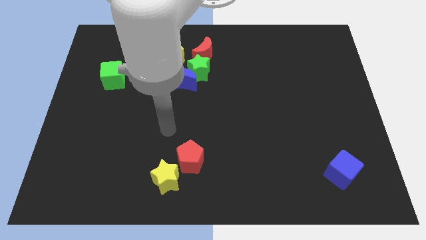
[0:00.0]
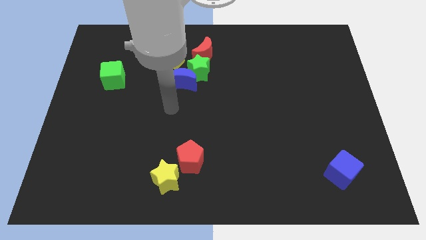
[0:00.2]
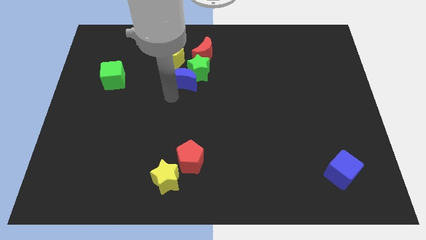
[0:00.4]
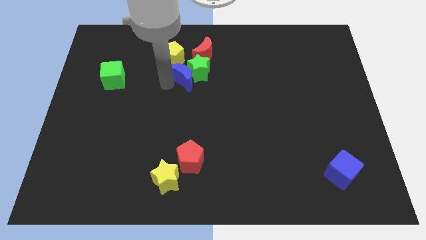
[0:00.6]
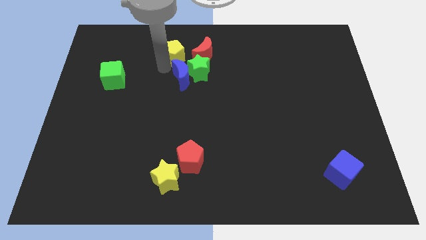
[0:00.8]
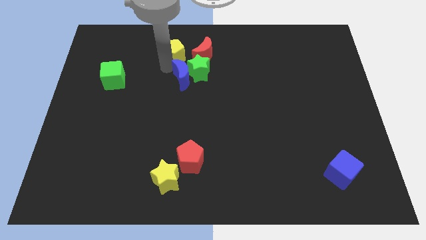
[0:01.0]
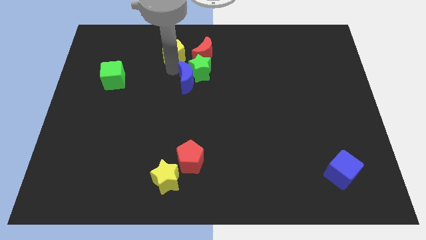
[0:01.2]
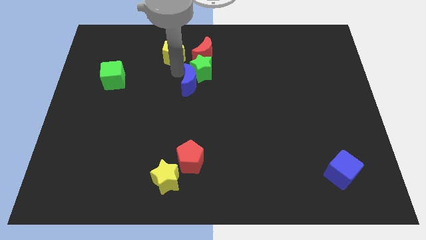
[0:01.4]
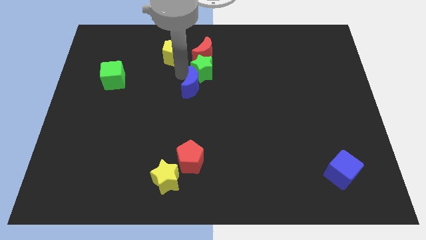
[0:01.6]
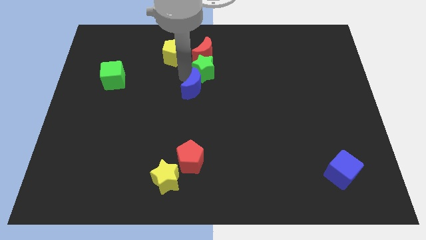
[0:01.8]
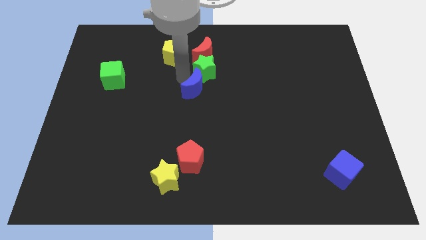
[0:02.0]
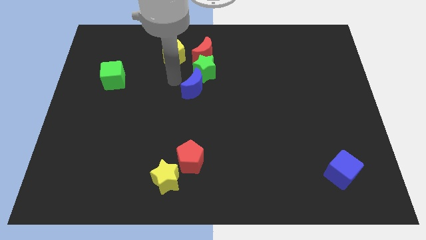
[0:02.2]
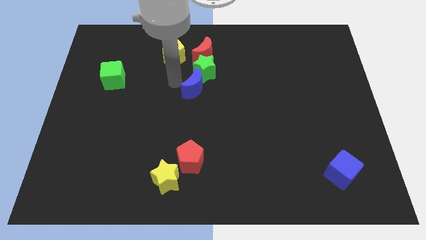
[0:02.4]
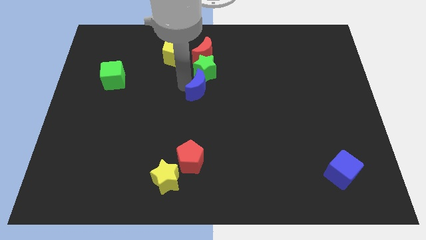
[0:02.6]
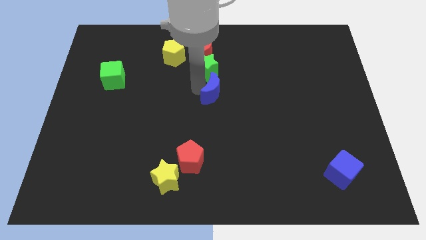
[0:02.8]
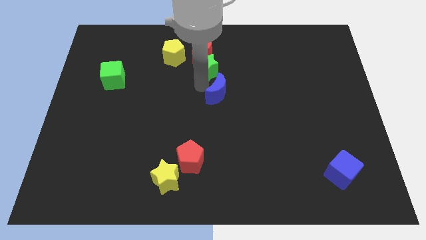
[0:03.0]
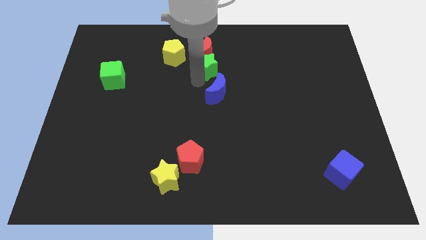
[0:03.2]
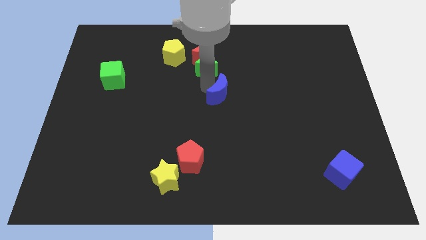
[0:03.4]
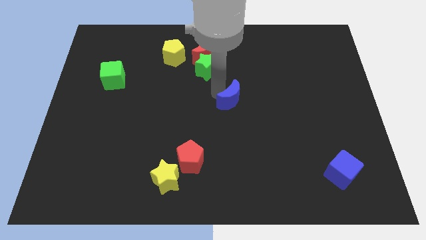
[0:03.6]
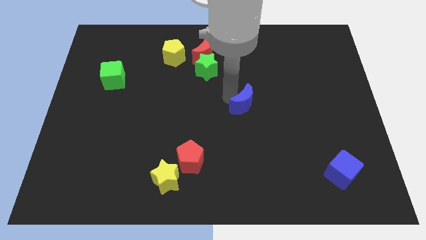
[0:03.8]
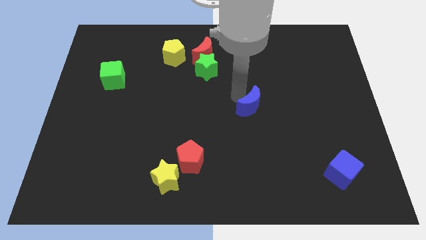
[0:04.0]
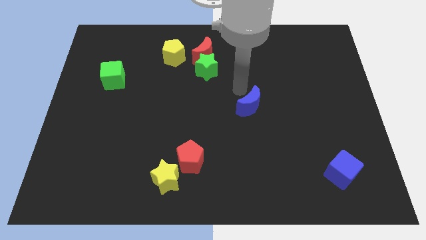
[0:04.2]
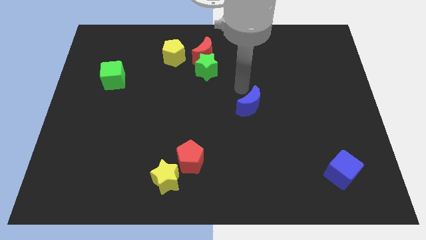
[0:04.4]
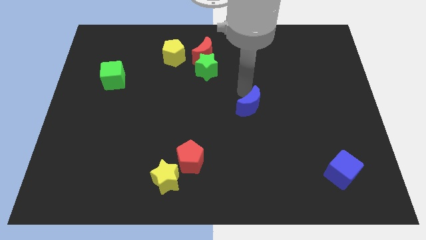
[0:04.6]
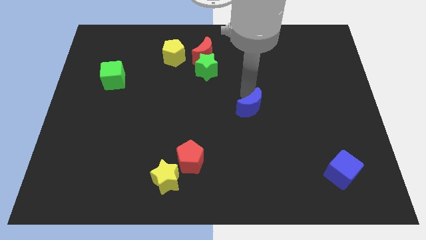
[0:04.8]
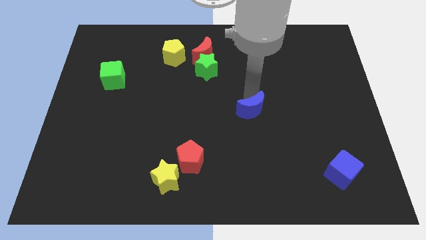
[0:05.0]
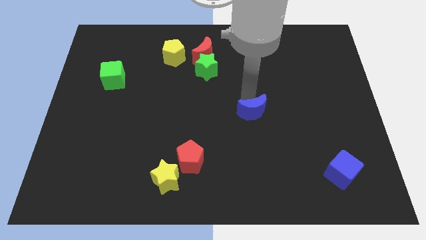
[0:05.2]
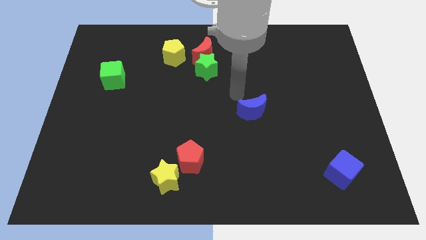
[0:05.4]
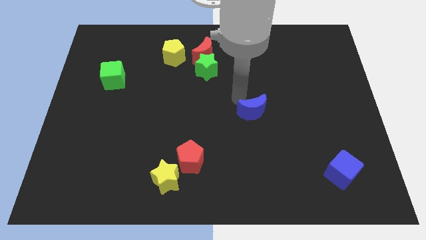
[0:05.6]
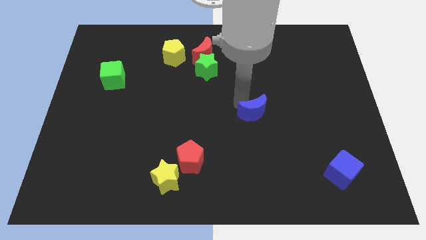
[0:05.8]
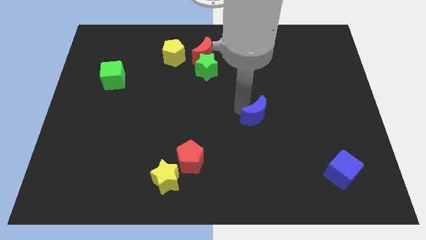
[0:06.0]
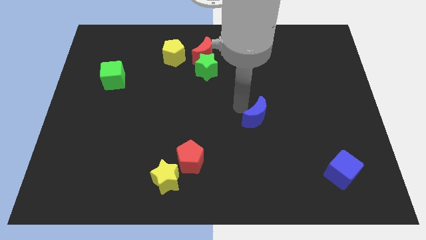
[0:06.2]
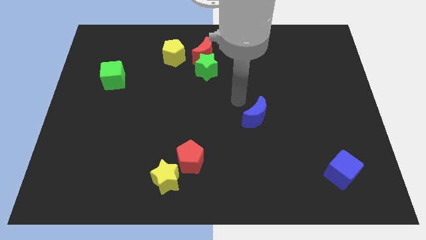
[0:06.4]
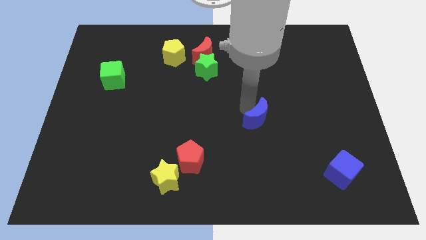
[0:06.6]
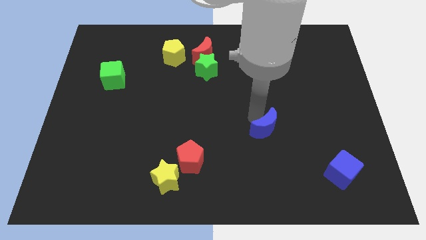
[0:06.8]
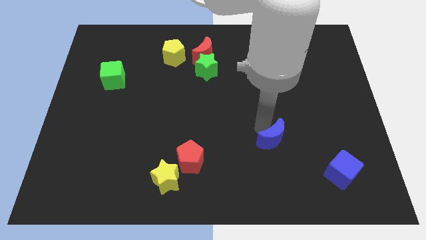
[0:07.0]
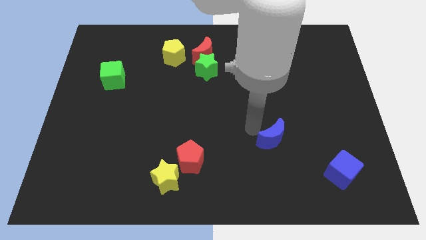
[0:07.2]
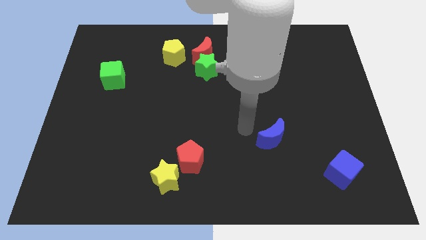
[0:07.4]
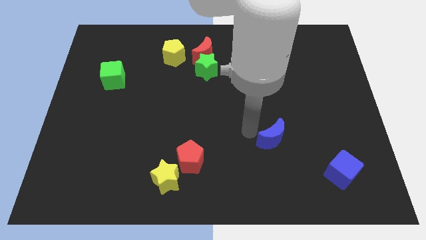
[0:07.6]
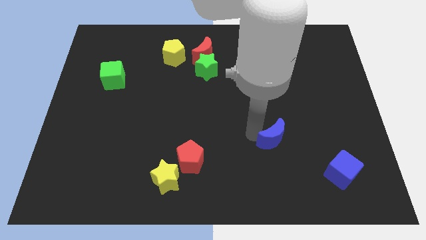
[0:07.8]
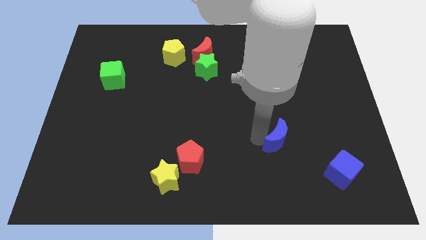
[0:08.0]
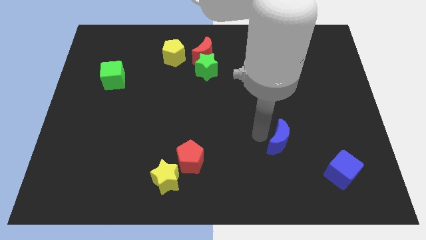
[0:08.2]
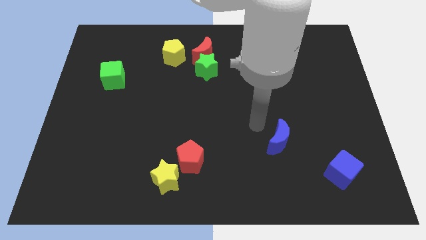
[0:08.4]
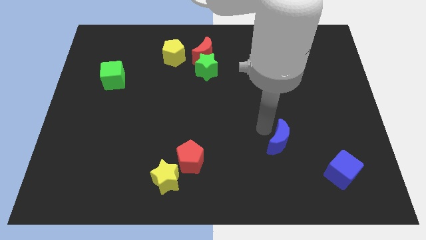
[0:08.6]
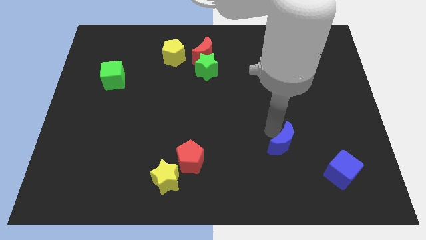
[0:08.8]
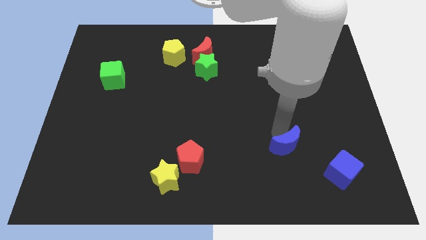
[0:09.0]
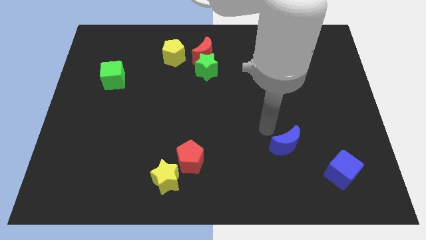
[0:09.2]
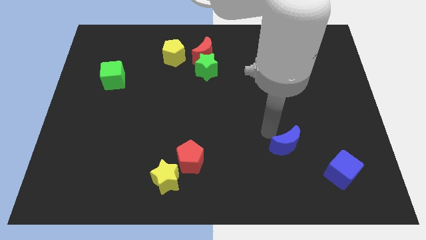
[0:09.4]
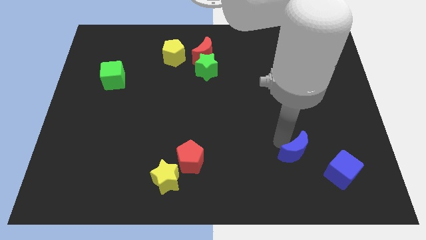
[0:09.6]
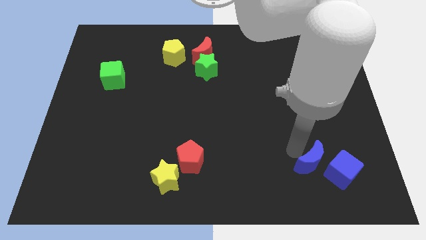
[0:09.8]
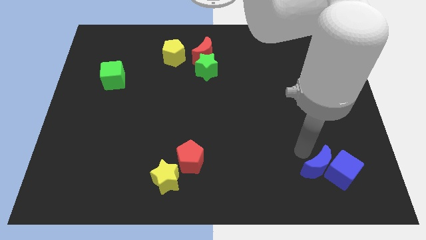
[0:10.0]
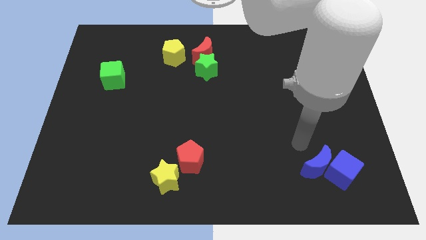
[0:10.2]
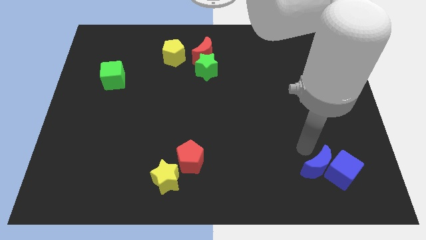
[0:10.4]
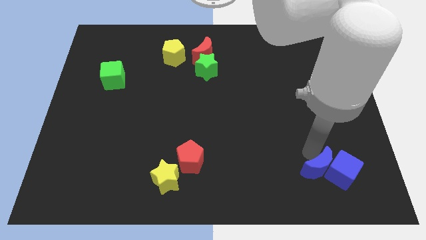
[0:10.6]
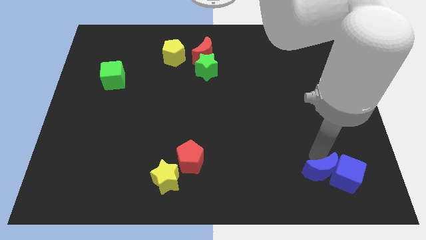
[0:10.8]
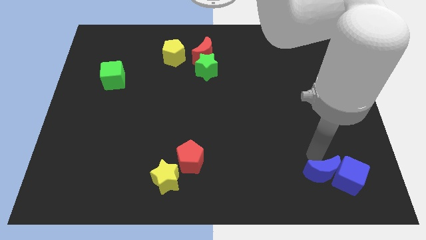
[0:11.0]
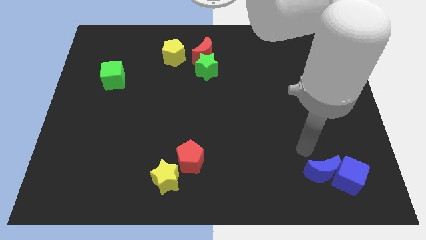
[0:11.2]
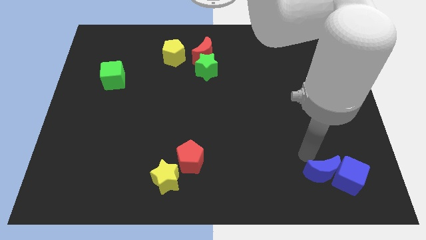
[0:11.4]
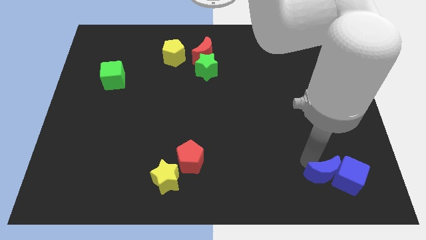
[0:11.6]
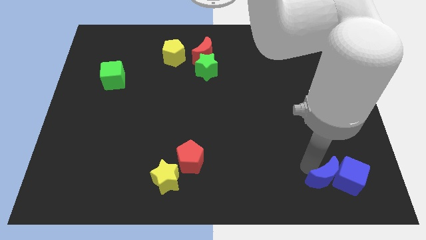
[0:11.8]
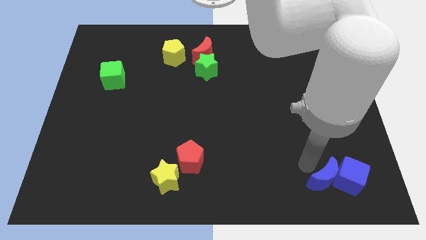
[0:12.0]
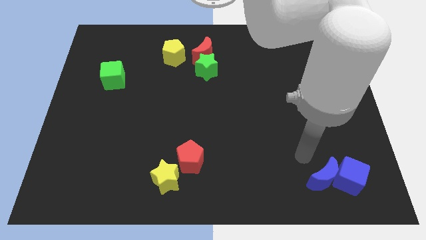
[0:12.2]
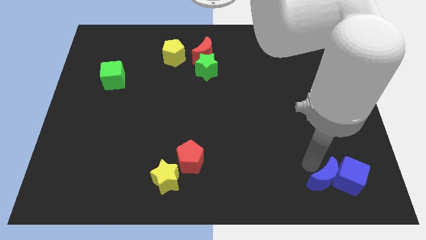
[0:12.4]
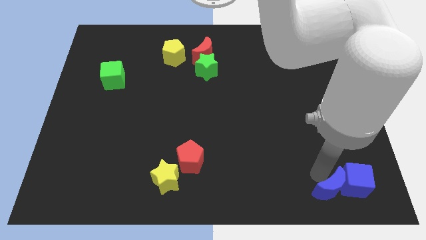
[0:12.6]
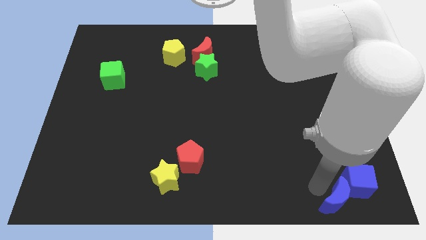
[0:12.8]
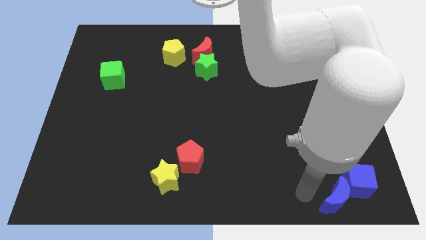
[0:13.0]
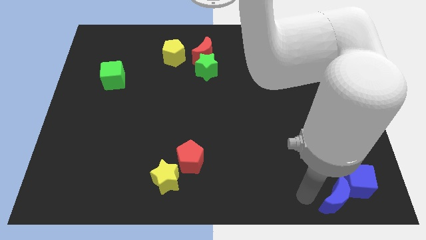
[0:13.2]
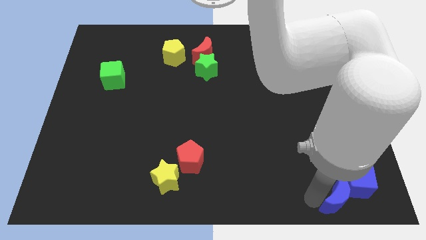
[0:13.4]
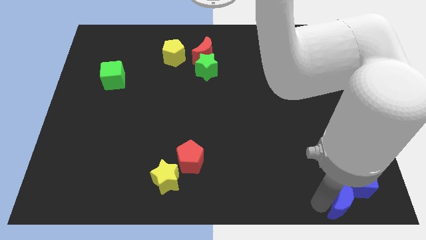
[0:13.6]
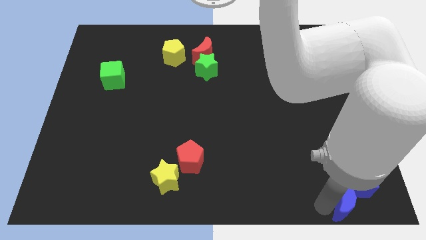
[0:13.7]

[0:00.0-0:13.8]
slide the blue moon to the lower right corner
